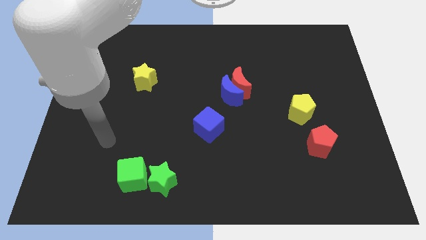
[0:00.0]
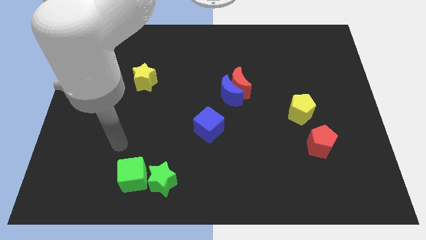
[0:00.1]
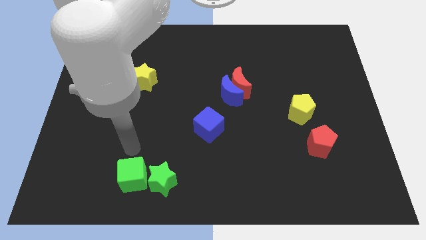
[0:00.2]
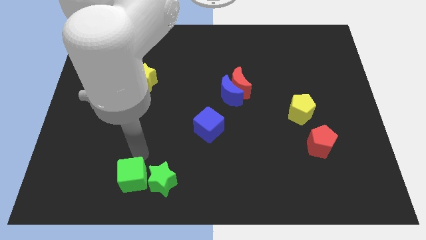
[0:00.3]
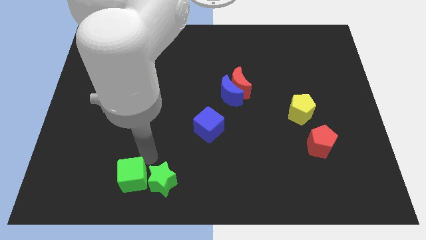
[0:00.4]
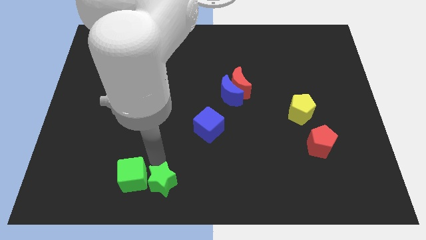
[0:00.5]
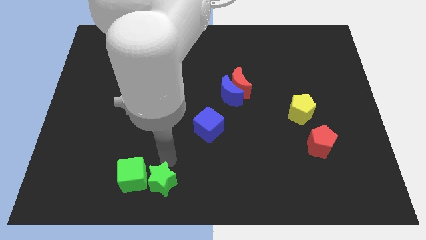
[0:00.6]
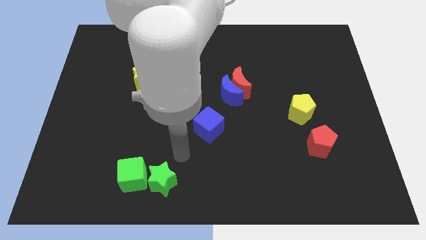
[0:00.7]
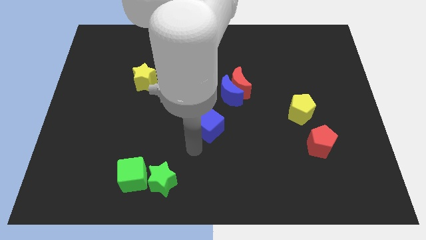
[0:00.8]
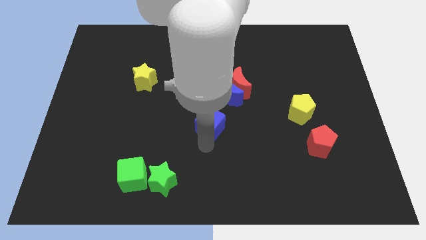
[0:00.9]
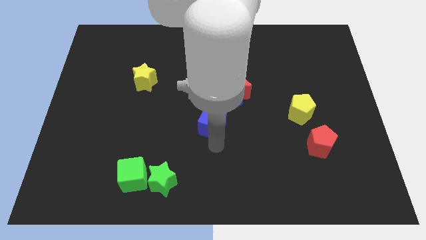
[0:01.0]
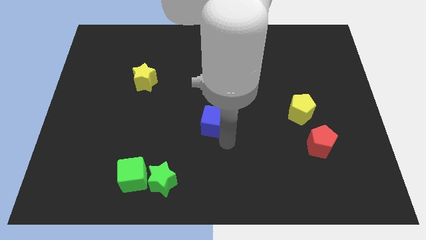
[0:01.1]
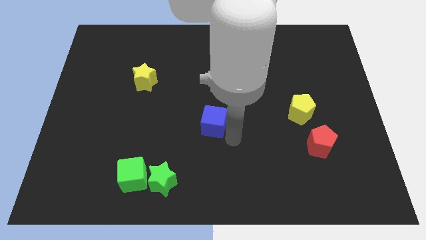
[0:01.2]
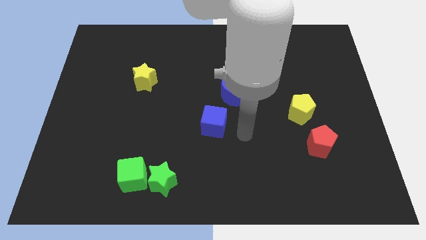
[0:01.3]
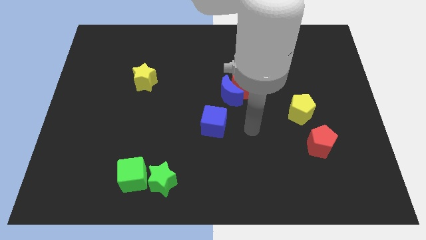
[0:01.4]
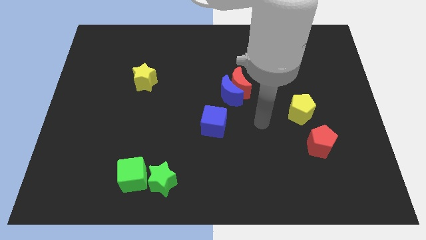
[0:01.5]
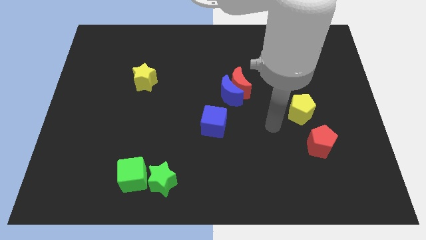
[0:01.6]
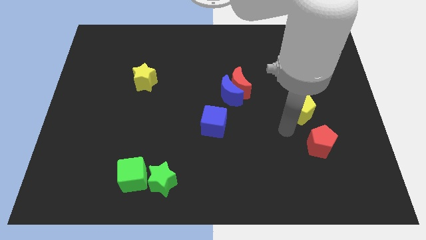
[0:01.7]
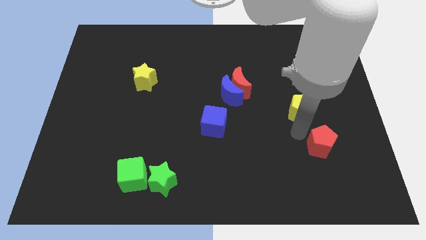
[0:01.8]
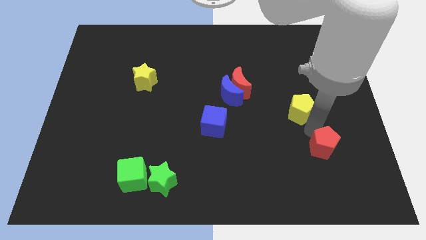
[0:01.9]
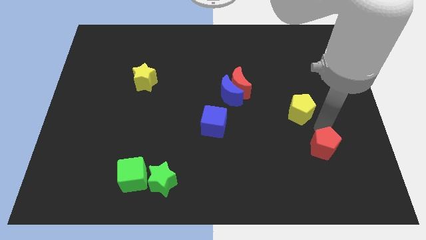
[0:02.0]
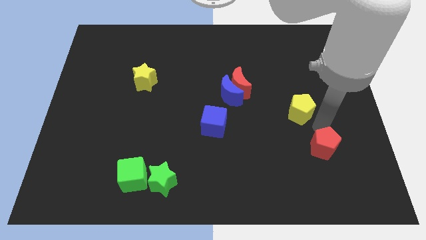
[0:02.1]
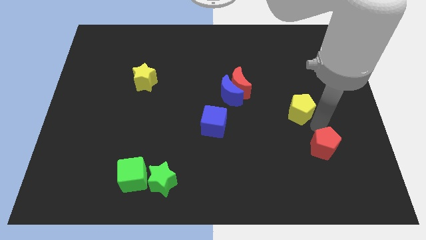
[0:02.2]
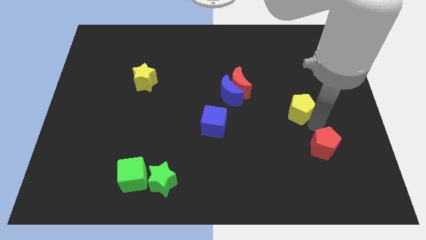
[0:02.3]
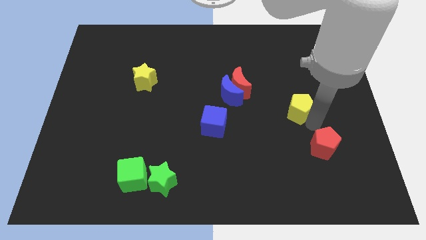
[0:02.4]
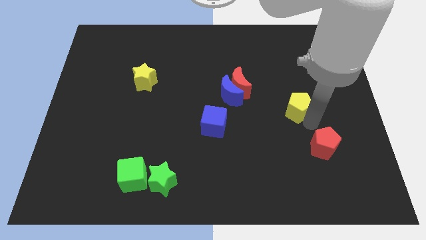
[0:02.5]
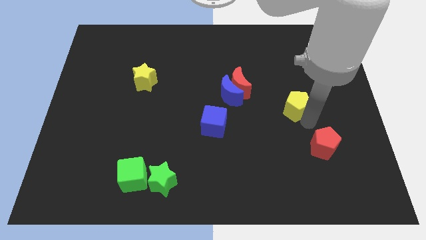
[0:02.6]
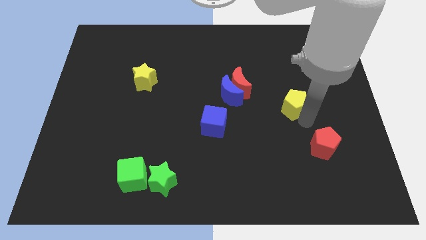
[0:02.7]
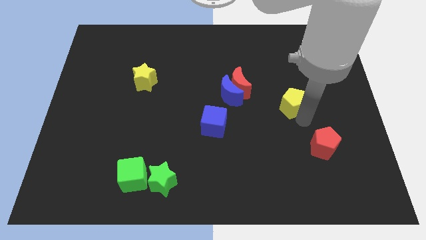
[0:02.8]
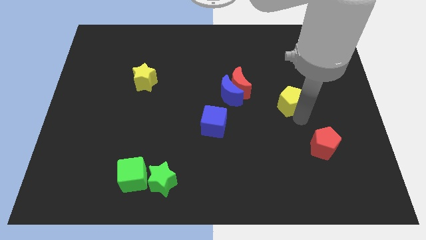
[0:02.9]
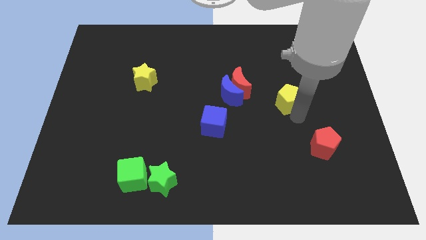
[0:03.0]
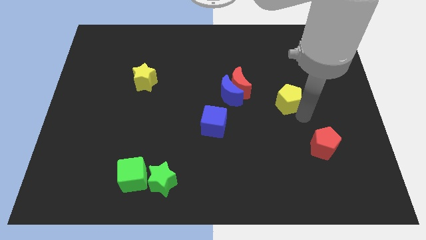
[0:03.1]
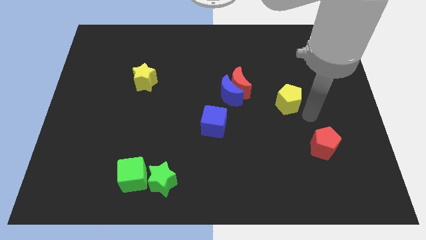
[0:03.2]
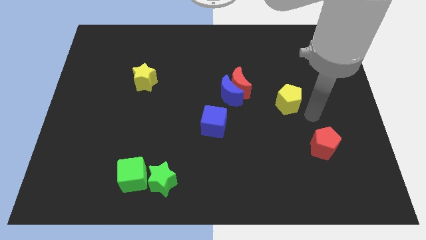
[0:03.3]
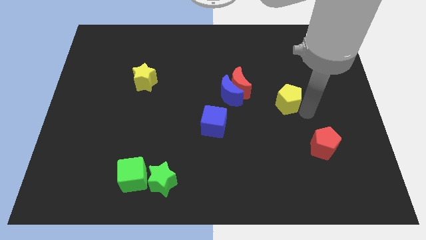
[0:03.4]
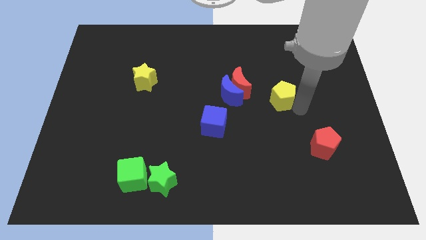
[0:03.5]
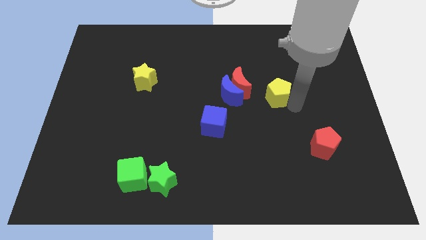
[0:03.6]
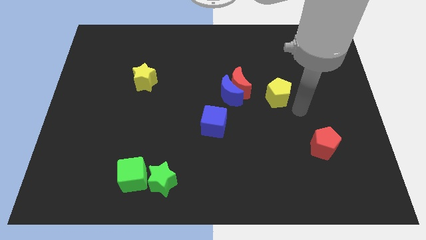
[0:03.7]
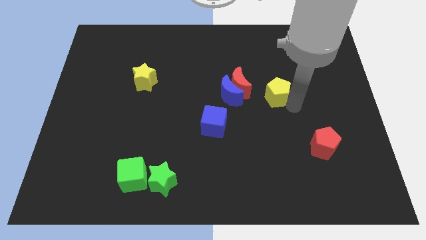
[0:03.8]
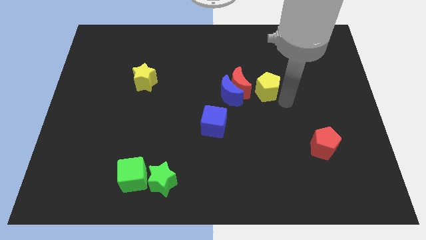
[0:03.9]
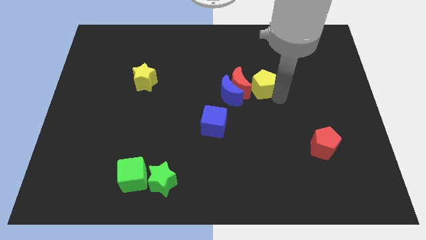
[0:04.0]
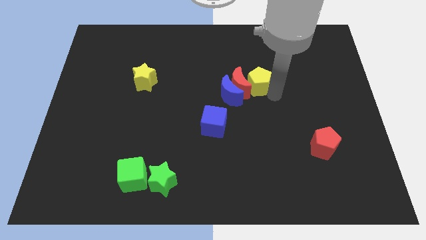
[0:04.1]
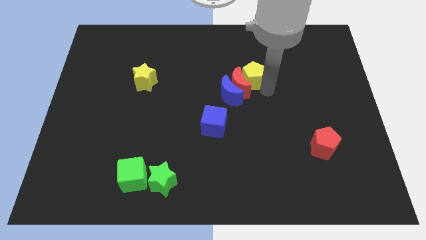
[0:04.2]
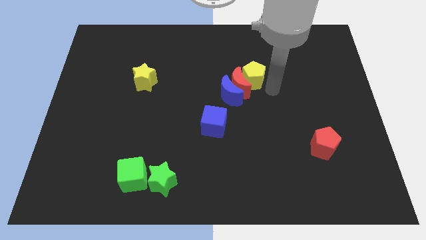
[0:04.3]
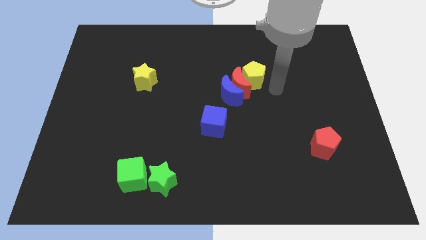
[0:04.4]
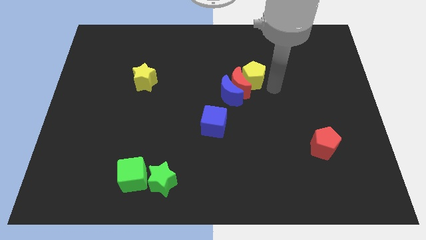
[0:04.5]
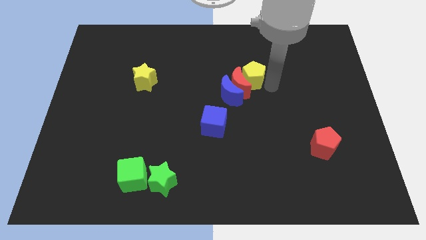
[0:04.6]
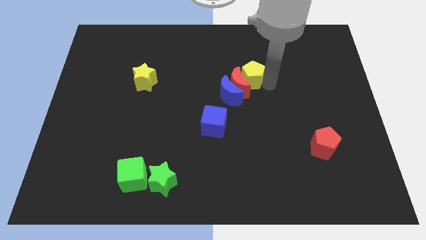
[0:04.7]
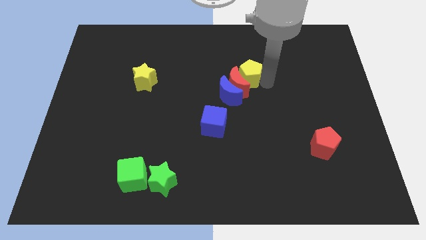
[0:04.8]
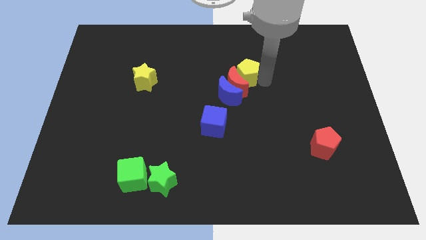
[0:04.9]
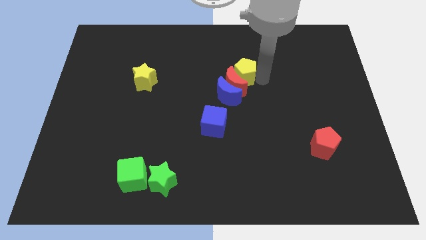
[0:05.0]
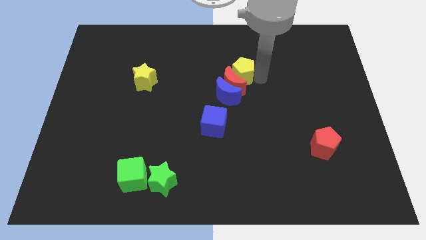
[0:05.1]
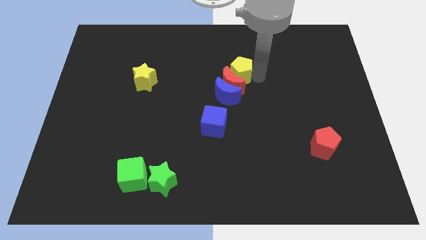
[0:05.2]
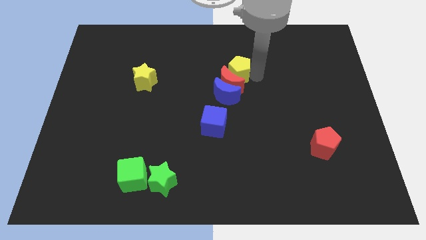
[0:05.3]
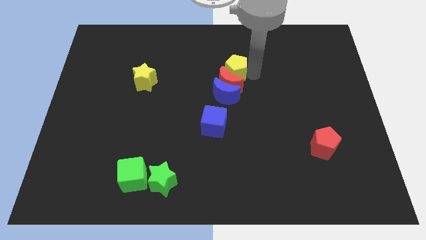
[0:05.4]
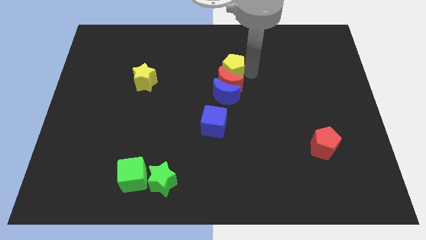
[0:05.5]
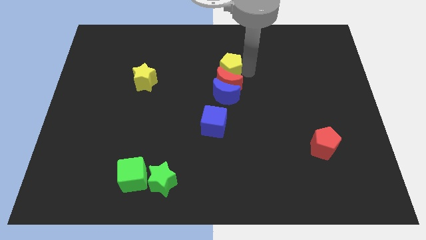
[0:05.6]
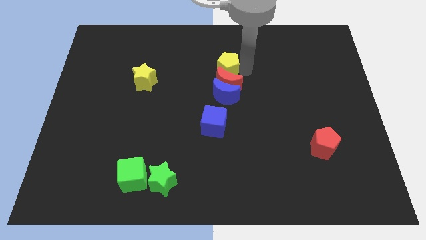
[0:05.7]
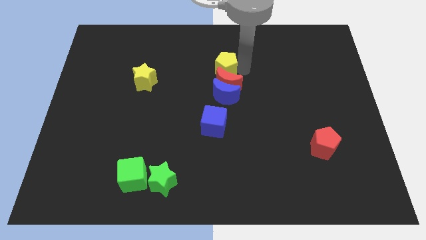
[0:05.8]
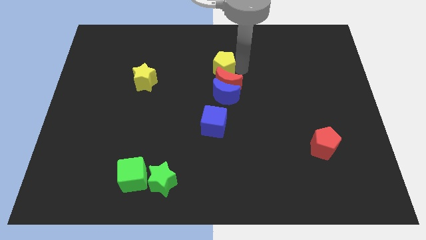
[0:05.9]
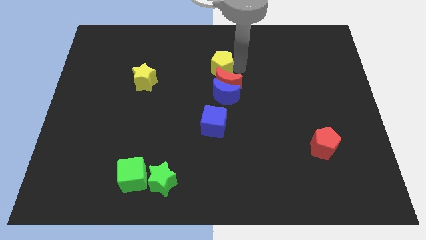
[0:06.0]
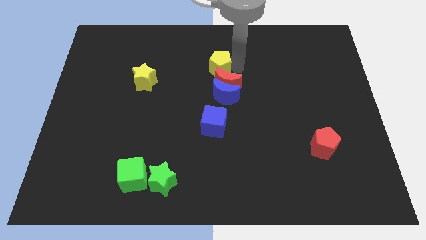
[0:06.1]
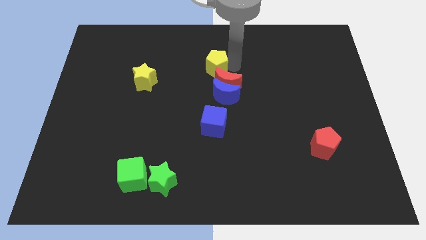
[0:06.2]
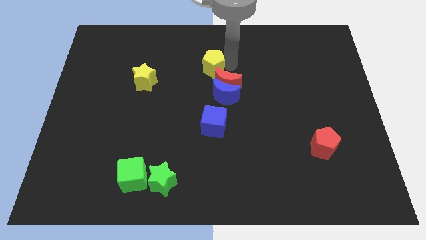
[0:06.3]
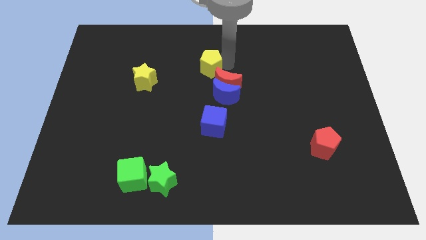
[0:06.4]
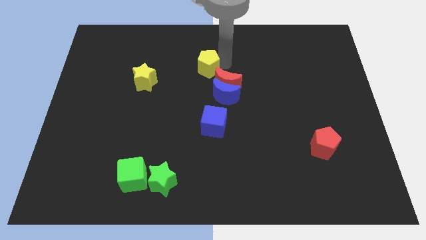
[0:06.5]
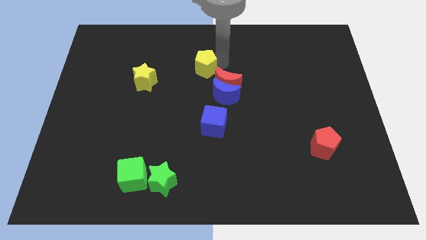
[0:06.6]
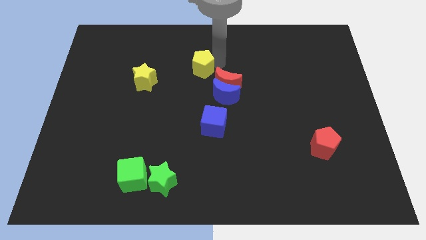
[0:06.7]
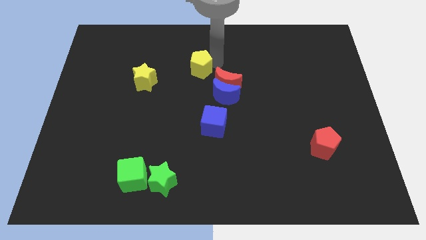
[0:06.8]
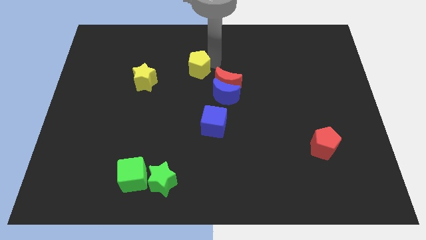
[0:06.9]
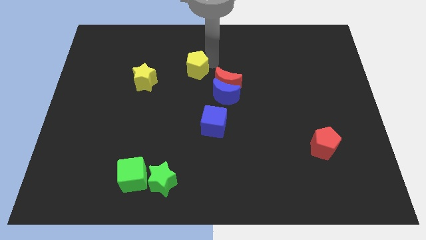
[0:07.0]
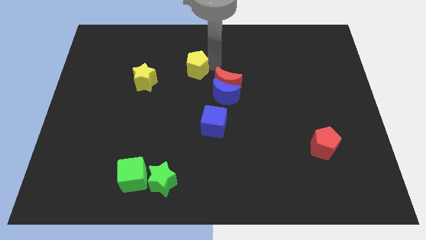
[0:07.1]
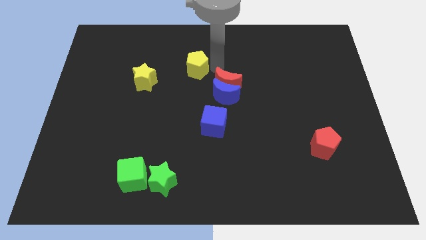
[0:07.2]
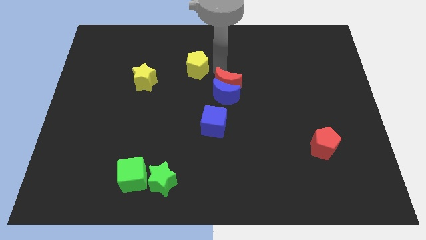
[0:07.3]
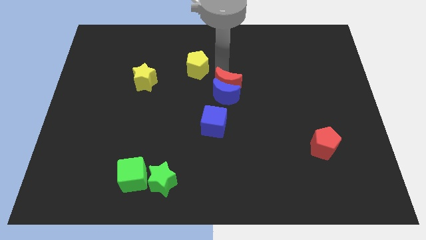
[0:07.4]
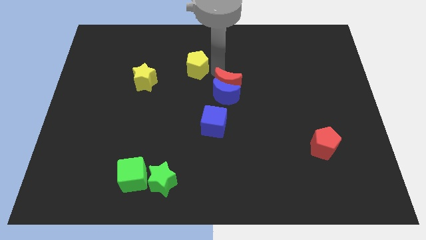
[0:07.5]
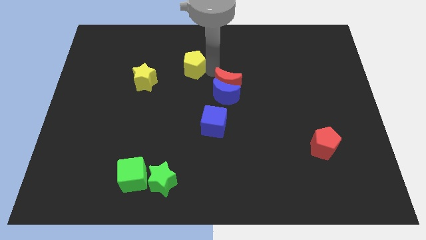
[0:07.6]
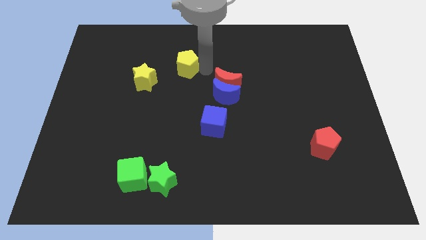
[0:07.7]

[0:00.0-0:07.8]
put the yellow pentagon diagonally up and to the right of the yellow star
